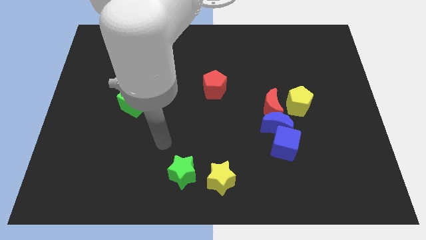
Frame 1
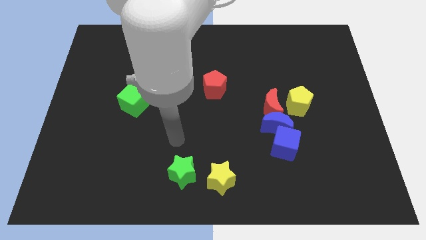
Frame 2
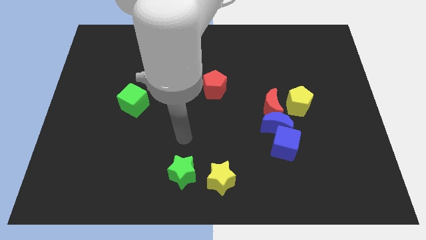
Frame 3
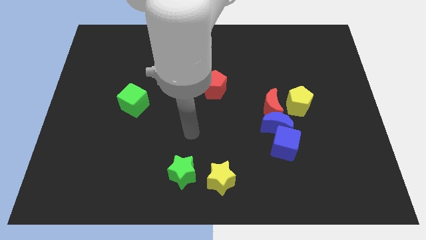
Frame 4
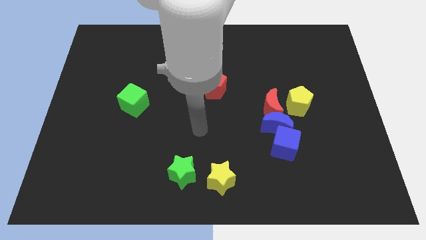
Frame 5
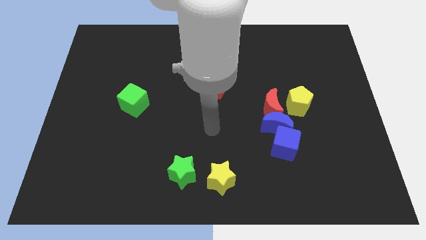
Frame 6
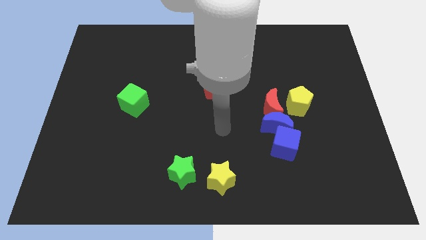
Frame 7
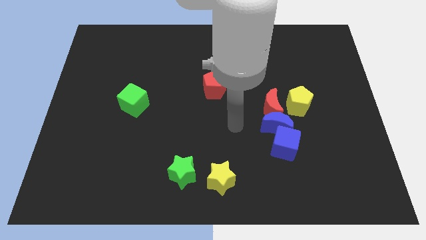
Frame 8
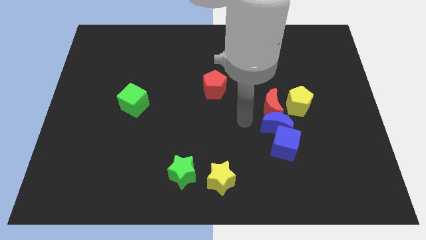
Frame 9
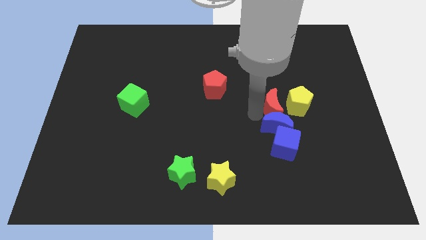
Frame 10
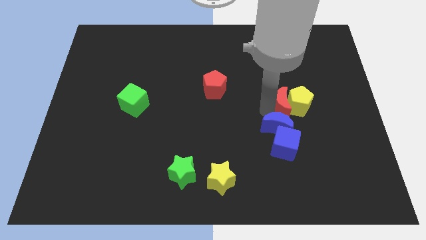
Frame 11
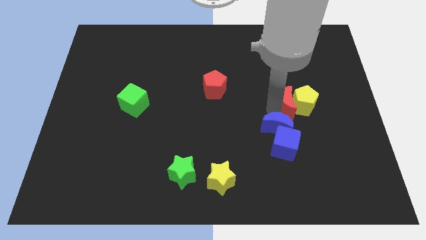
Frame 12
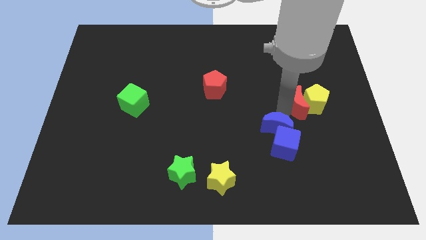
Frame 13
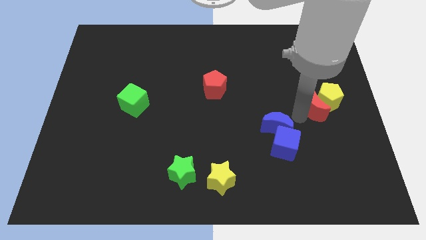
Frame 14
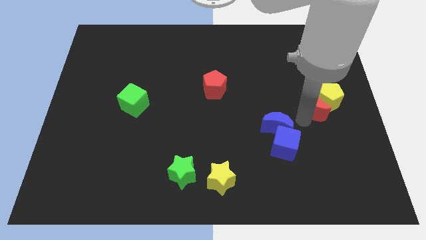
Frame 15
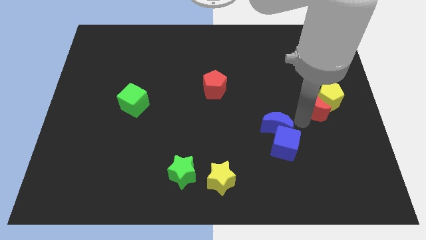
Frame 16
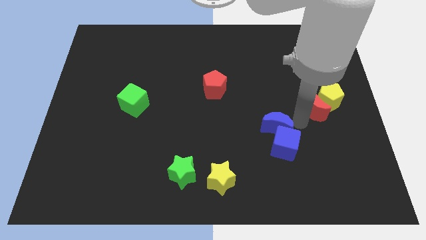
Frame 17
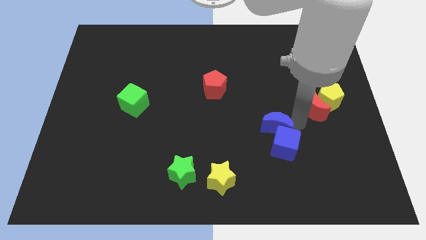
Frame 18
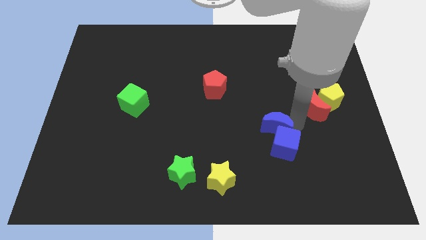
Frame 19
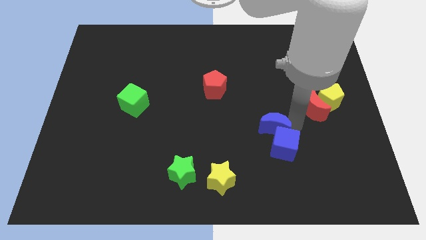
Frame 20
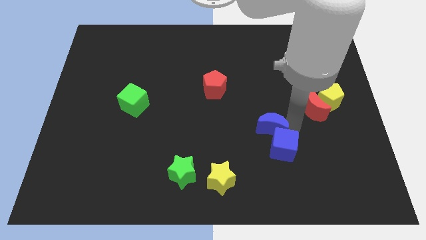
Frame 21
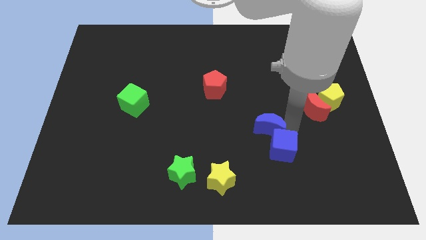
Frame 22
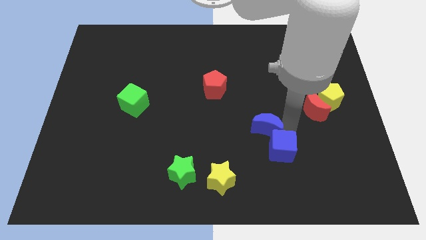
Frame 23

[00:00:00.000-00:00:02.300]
separate the blue moon from the red moon, blue cube, and yellow pentagon

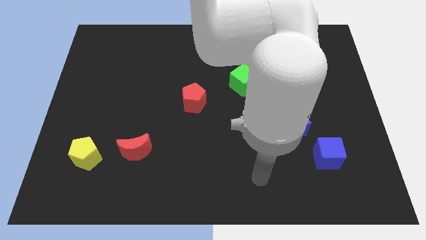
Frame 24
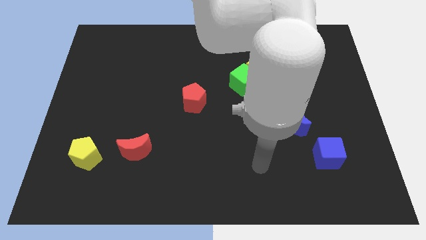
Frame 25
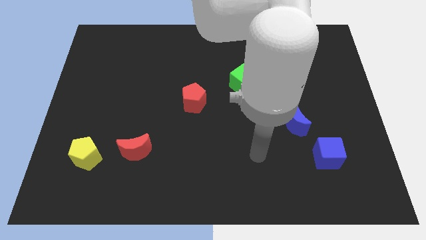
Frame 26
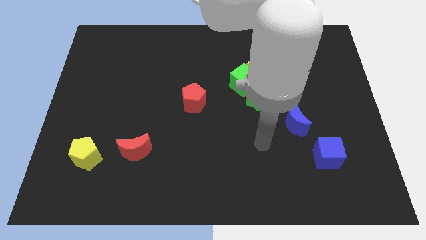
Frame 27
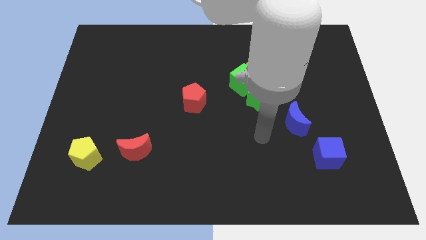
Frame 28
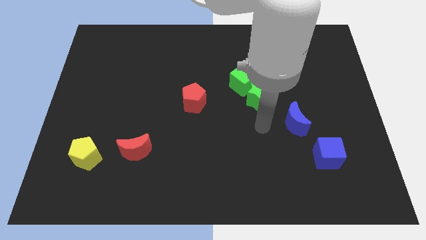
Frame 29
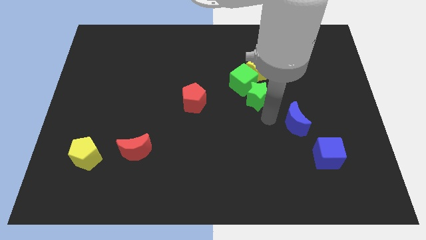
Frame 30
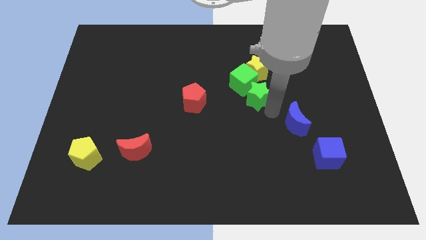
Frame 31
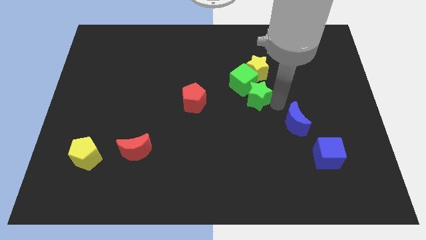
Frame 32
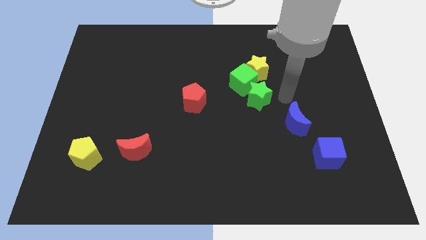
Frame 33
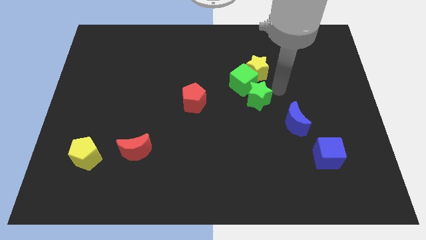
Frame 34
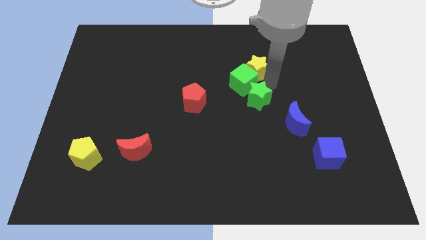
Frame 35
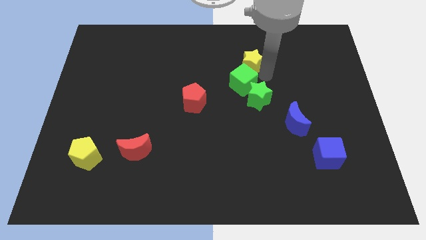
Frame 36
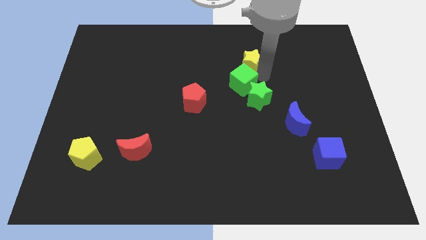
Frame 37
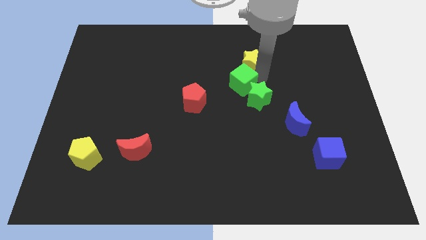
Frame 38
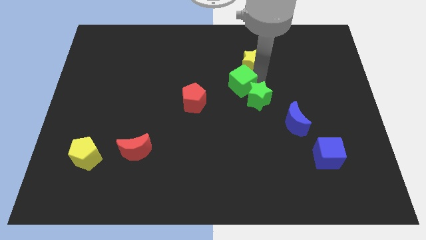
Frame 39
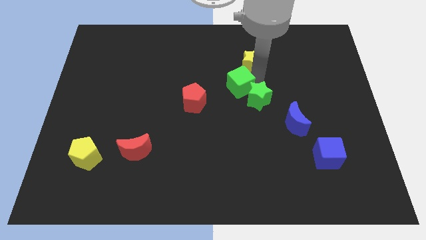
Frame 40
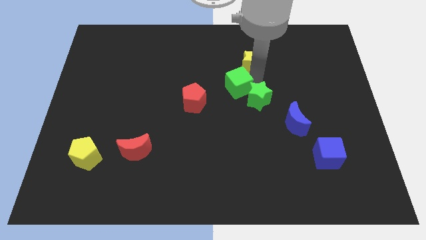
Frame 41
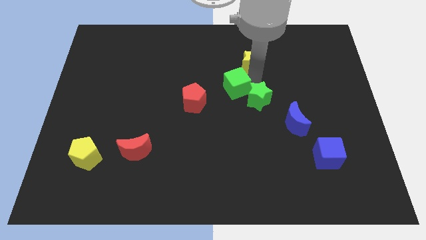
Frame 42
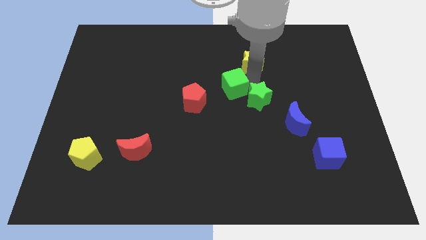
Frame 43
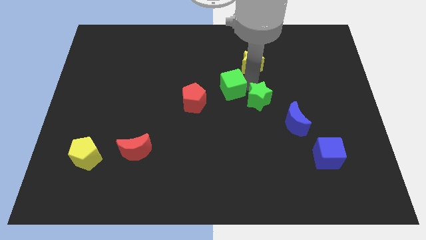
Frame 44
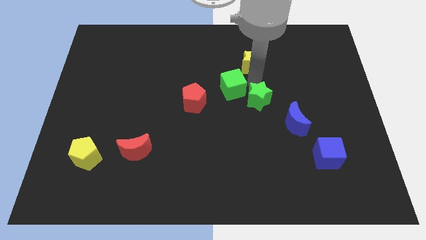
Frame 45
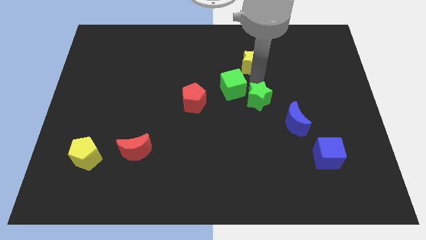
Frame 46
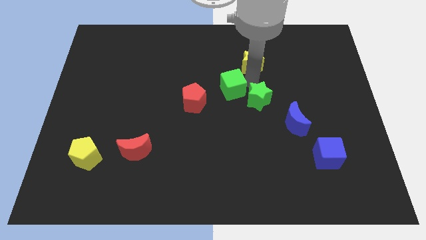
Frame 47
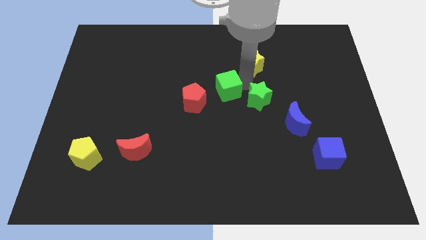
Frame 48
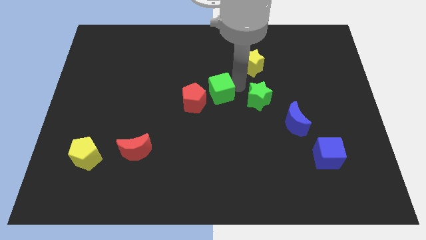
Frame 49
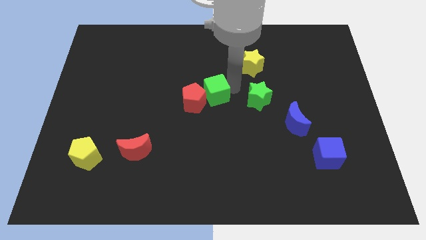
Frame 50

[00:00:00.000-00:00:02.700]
pull the green cube apart from the yellow star and green star

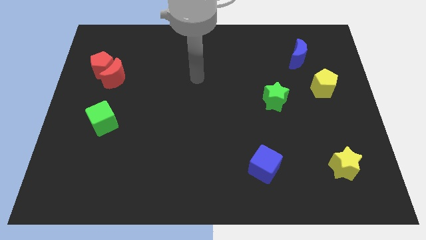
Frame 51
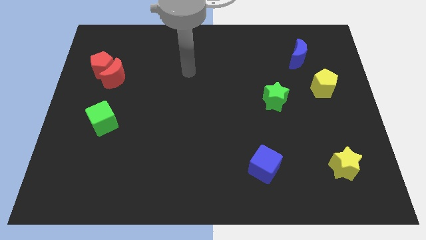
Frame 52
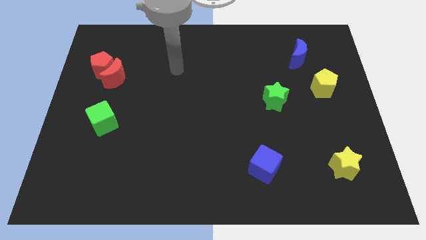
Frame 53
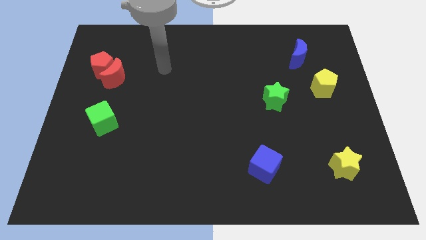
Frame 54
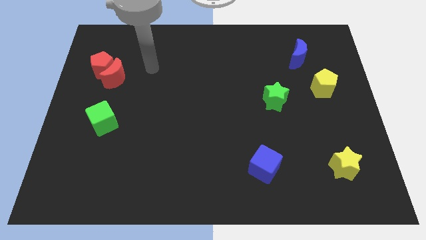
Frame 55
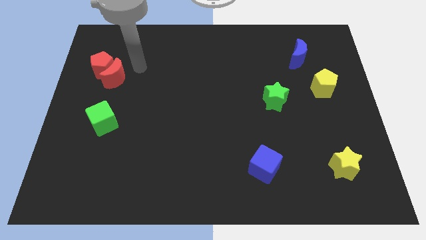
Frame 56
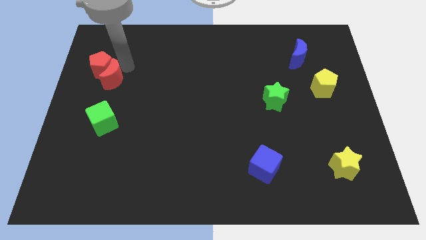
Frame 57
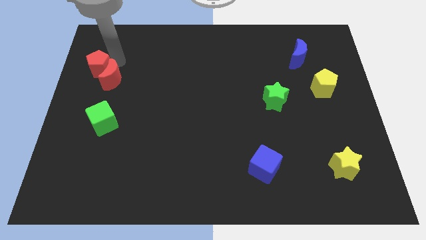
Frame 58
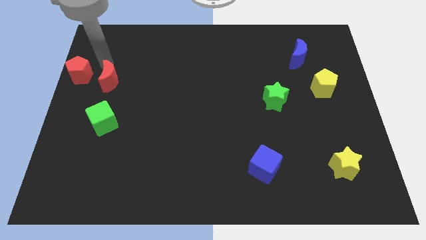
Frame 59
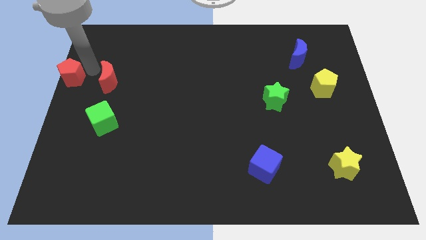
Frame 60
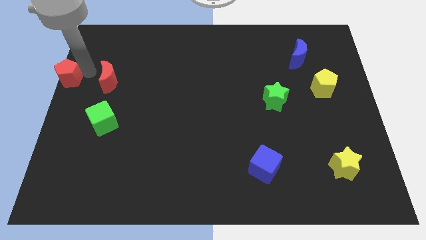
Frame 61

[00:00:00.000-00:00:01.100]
pull the red moon apart from the red pentagon

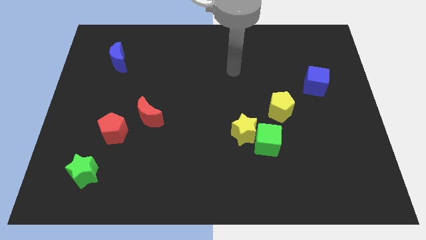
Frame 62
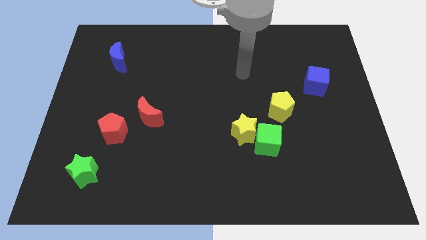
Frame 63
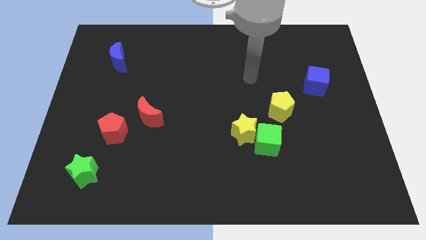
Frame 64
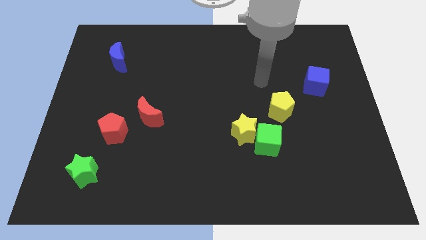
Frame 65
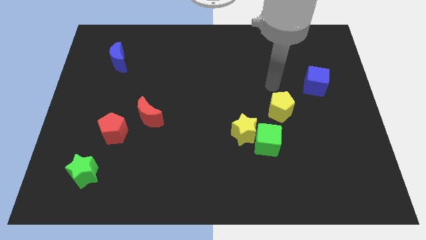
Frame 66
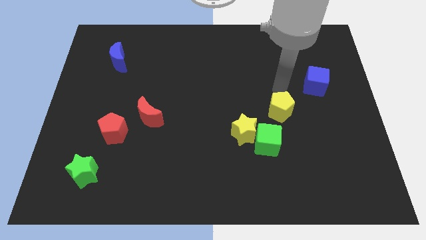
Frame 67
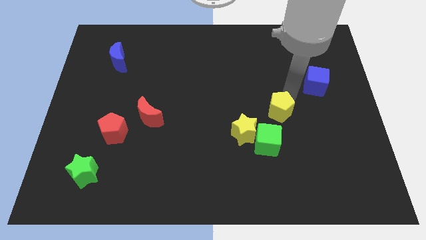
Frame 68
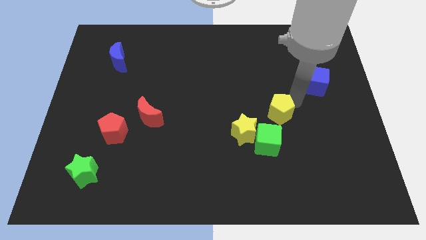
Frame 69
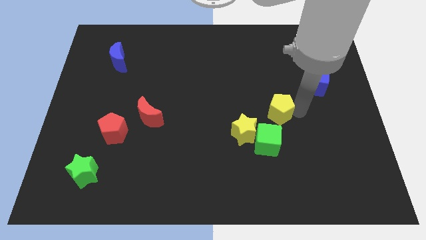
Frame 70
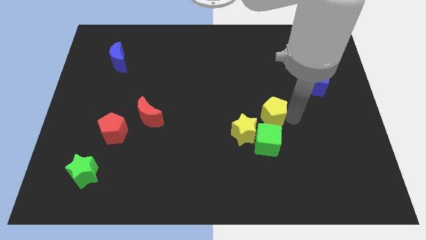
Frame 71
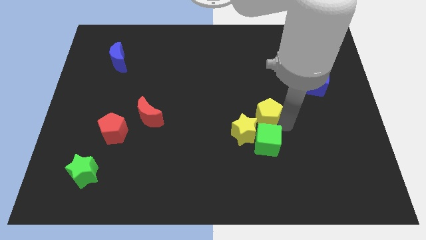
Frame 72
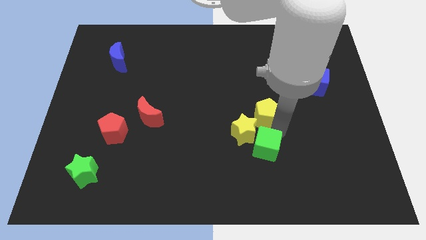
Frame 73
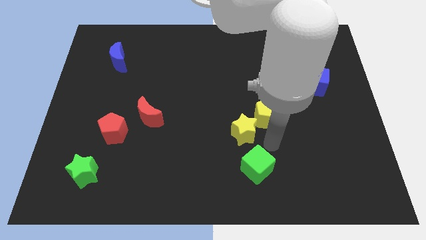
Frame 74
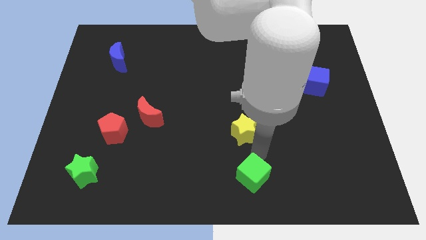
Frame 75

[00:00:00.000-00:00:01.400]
separate the yellow star from the green cube

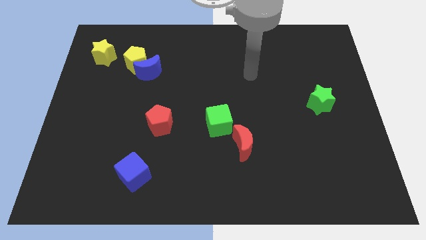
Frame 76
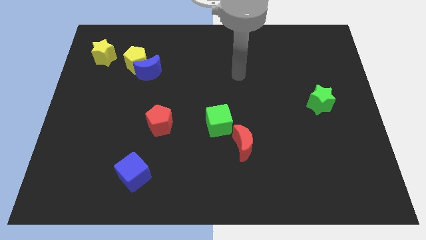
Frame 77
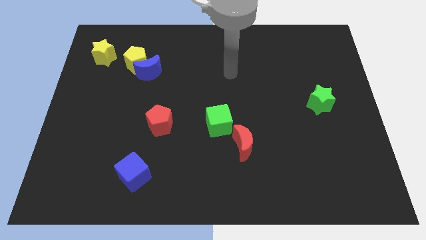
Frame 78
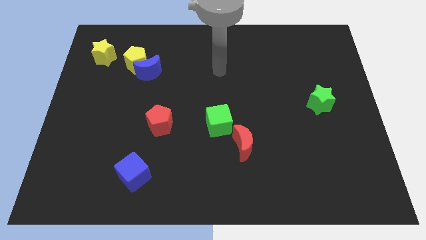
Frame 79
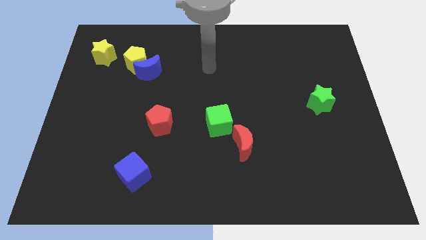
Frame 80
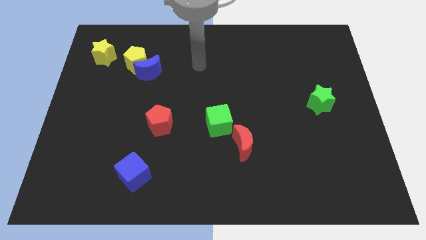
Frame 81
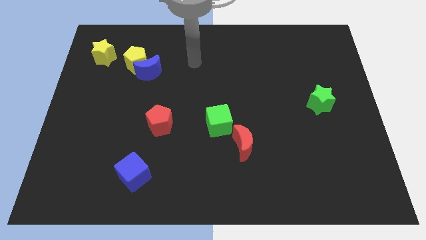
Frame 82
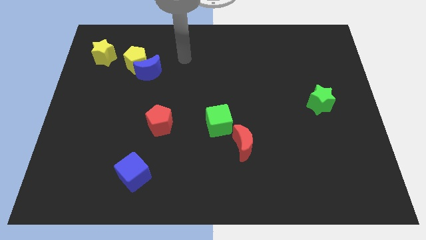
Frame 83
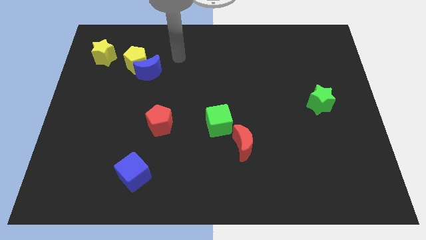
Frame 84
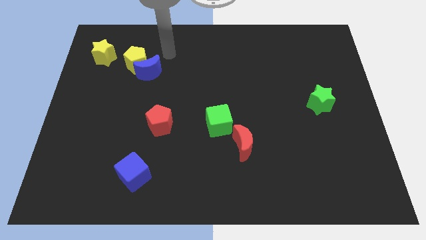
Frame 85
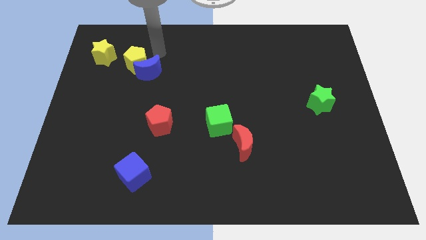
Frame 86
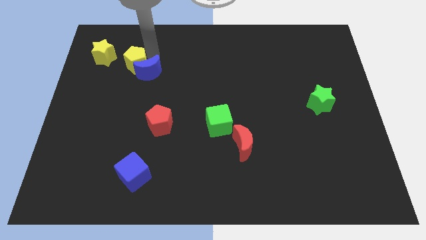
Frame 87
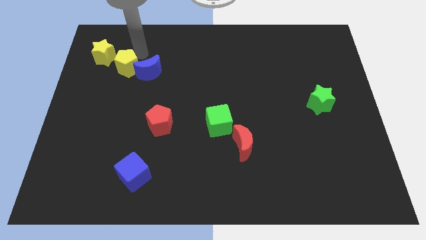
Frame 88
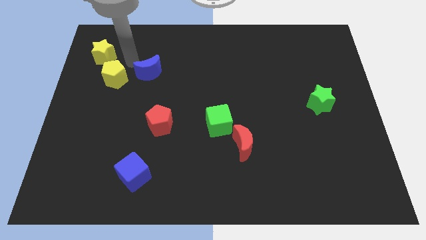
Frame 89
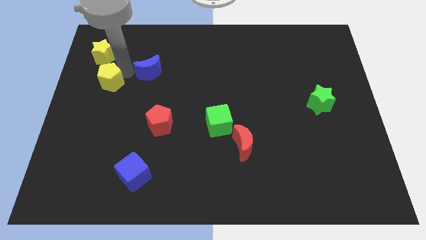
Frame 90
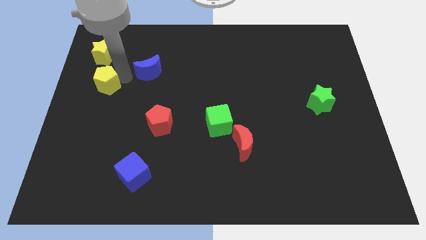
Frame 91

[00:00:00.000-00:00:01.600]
pull the blue moon apart from the yellow pentagon

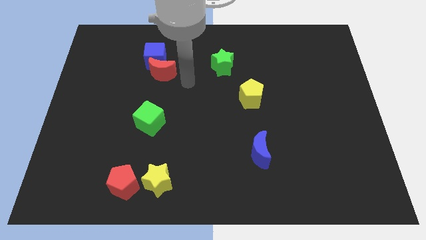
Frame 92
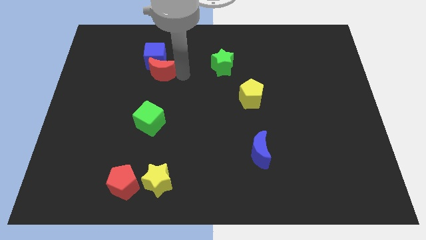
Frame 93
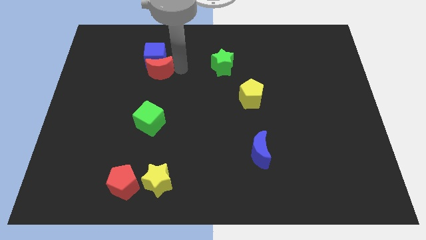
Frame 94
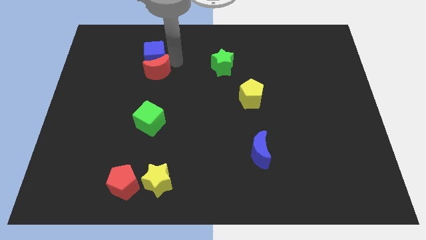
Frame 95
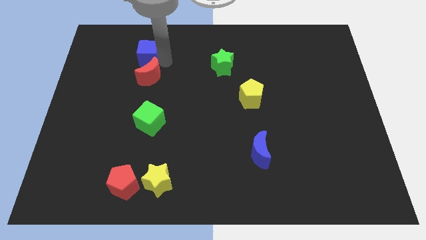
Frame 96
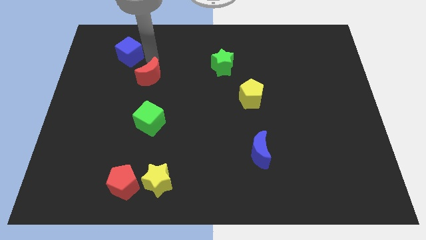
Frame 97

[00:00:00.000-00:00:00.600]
pull the red moon apart from the blue cube
